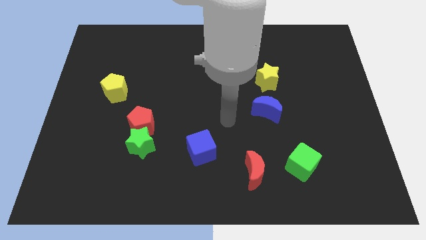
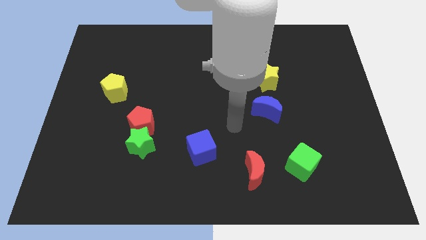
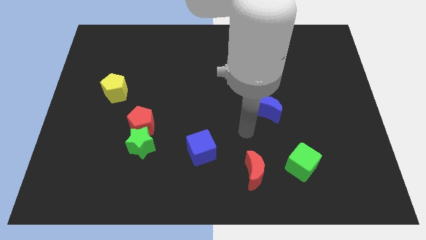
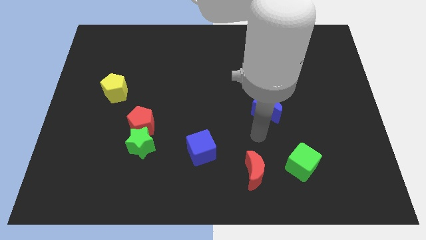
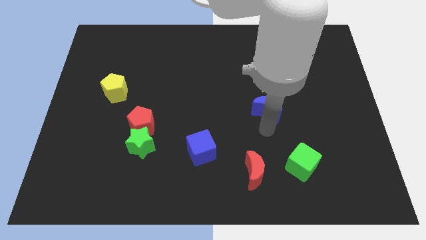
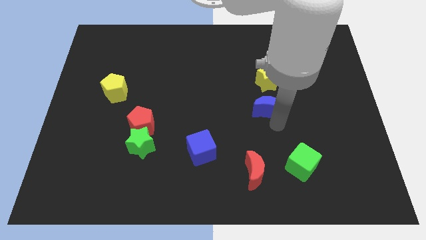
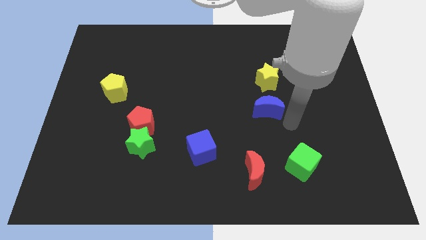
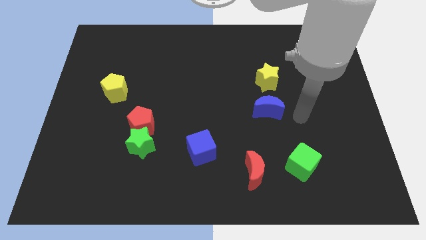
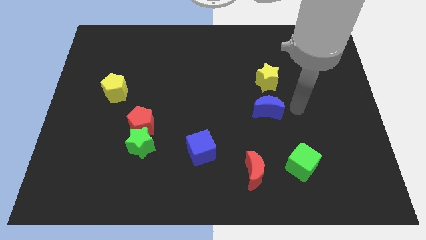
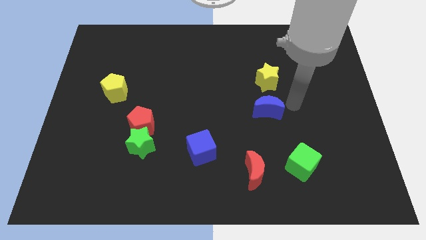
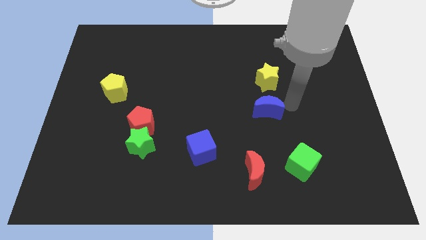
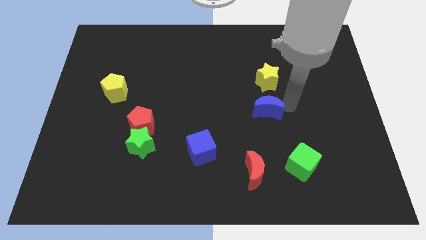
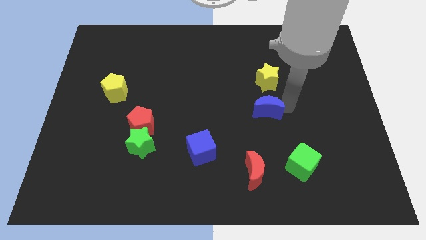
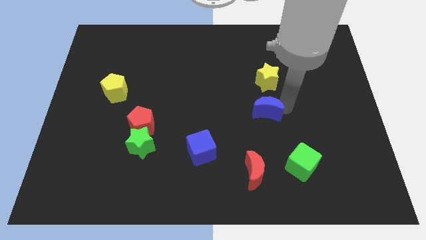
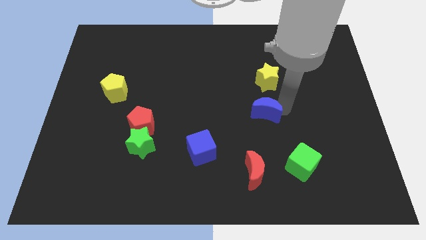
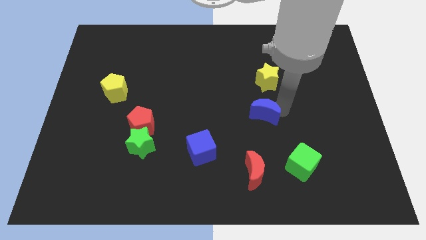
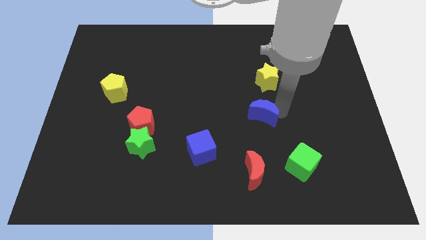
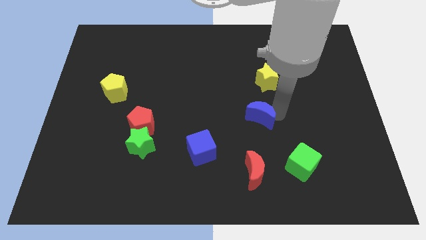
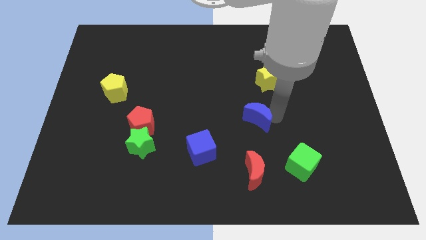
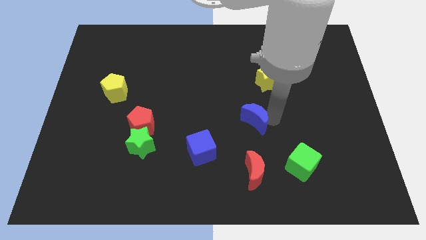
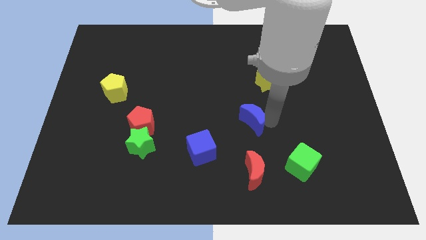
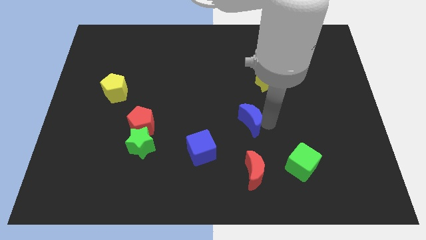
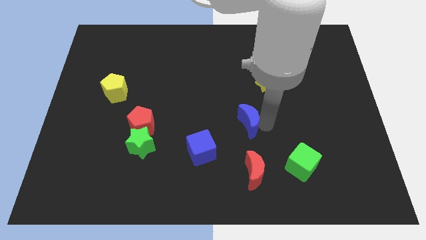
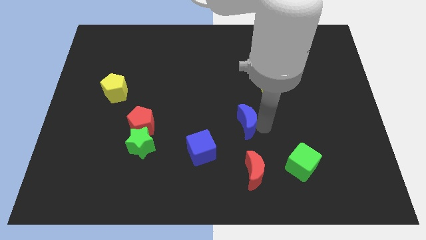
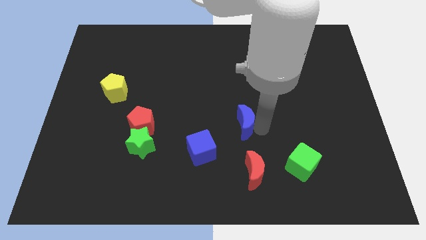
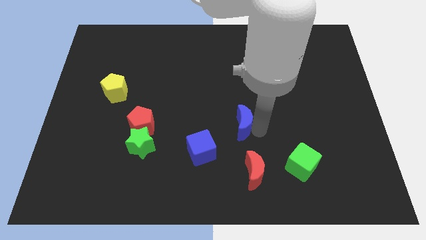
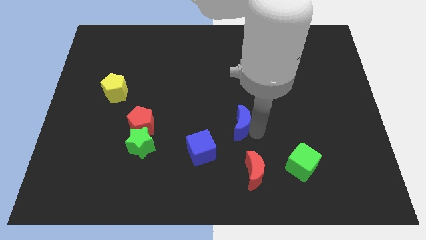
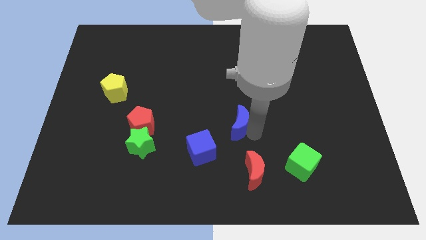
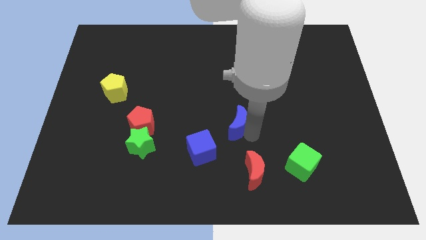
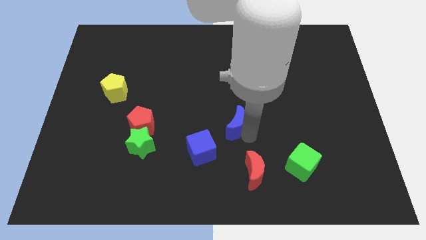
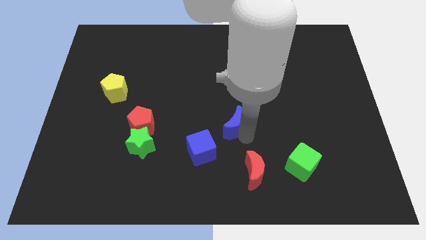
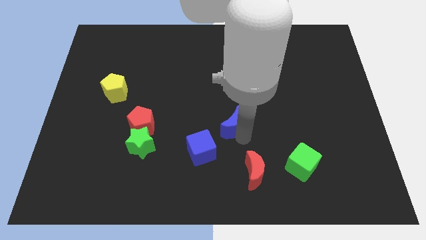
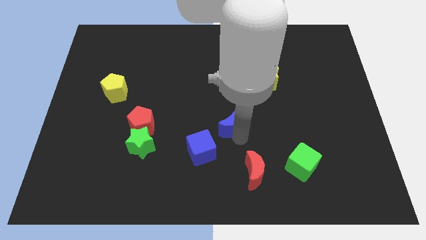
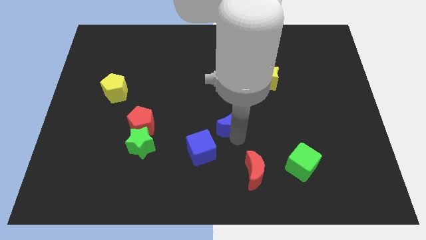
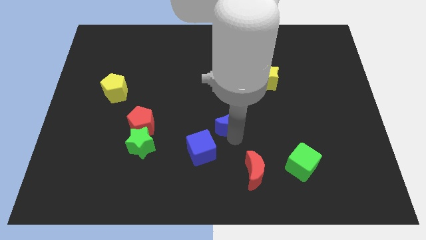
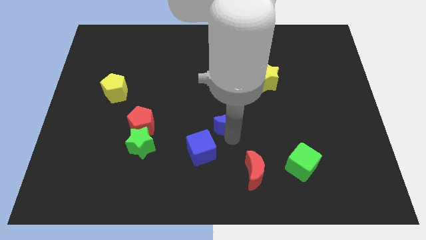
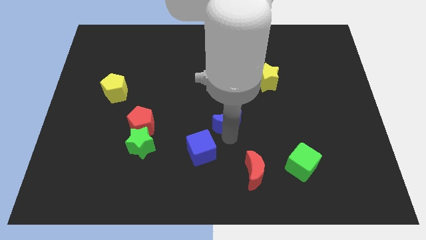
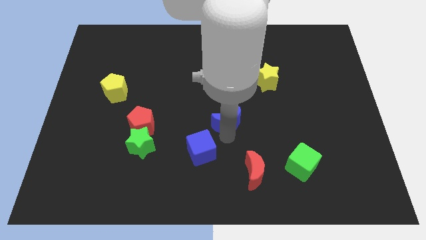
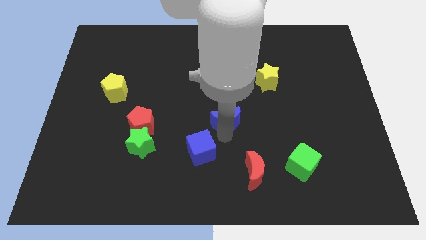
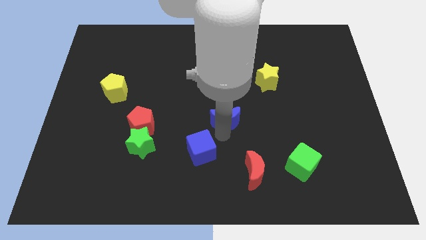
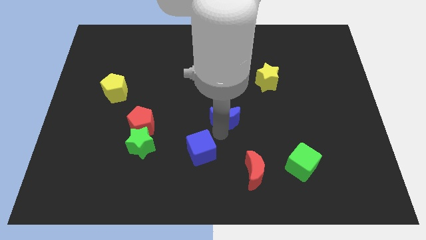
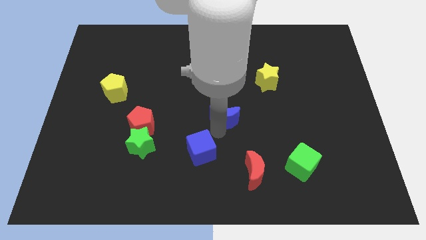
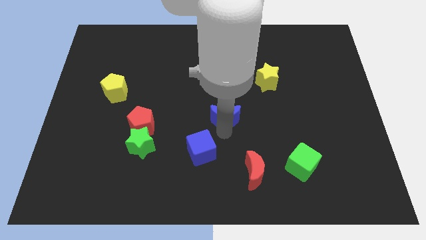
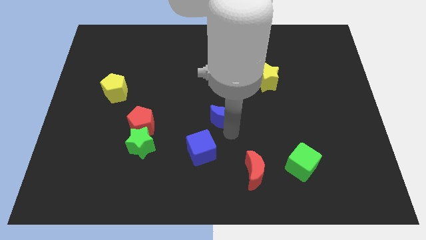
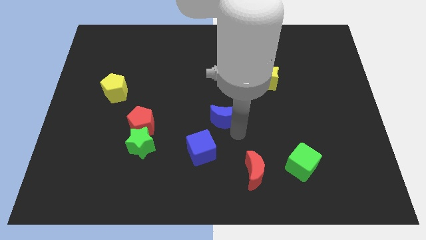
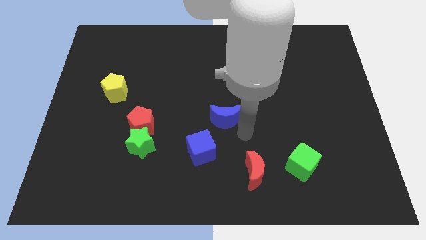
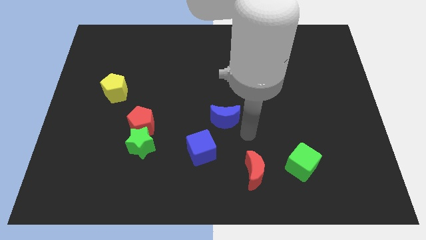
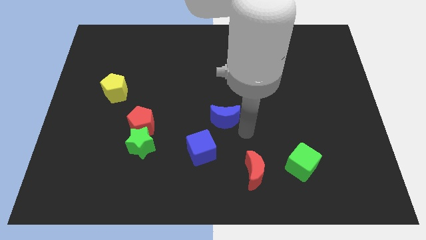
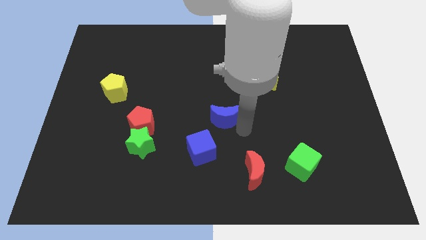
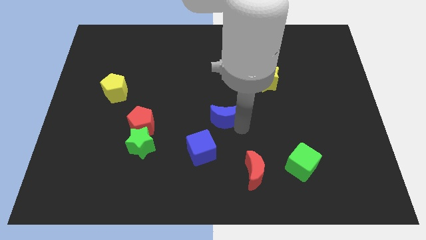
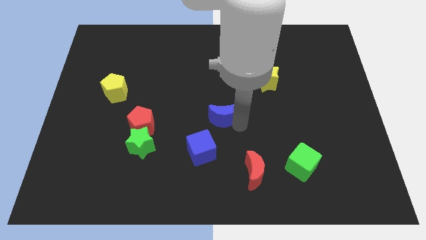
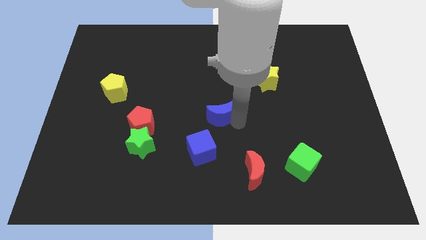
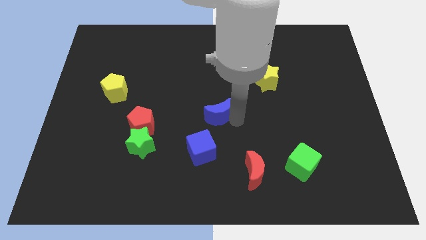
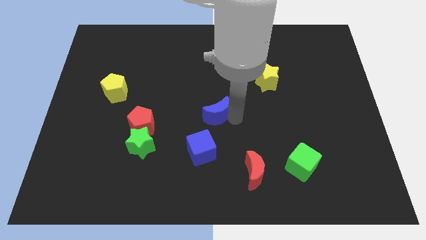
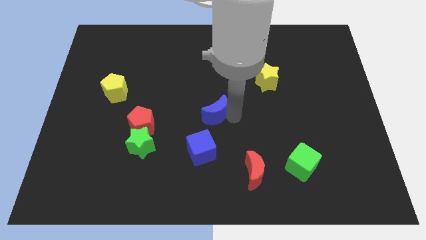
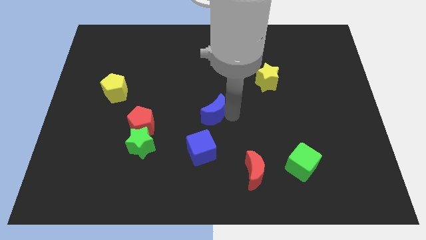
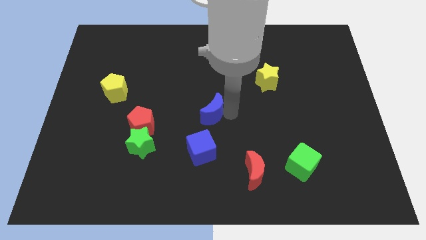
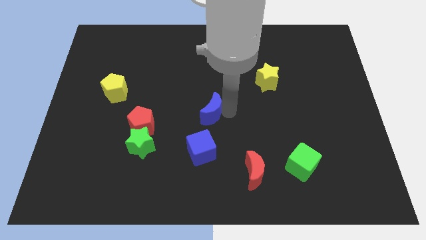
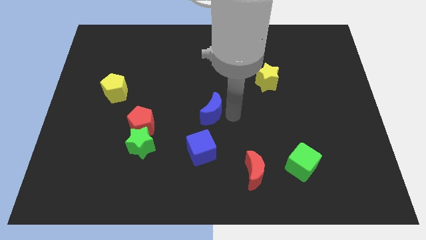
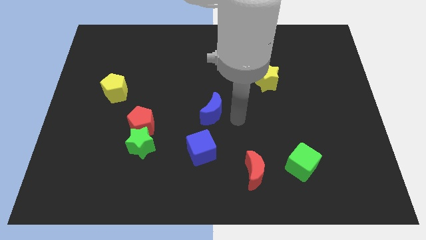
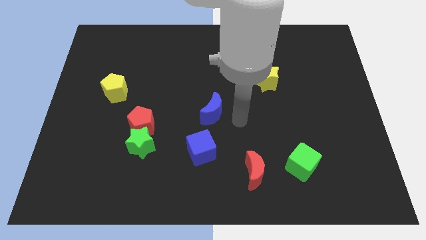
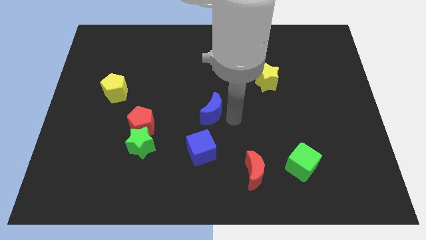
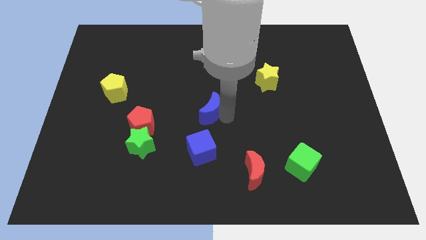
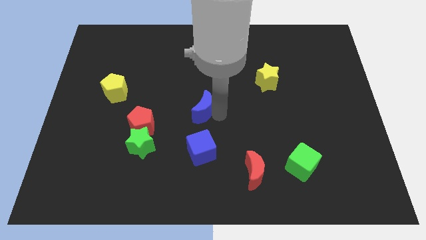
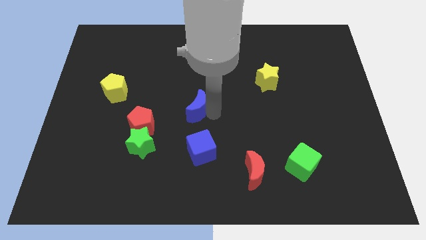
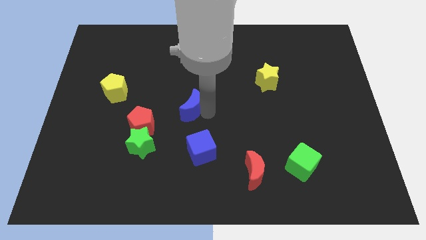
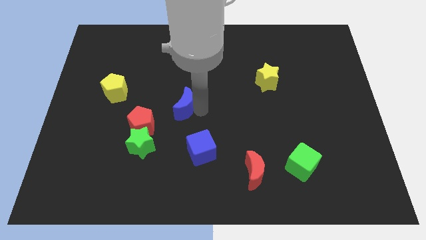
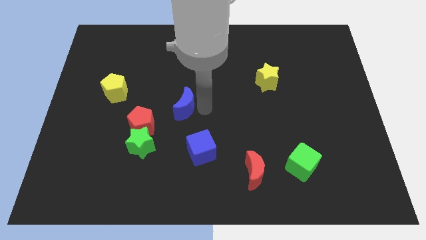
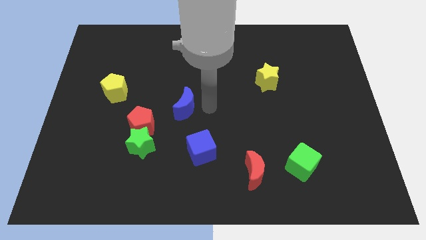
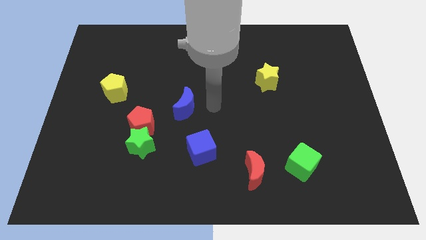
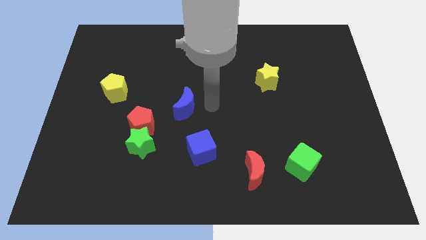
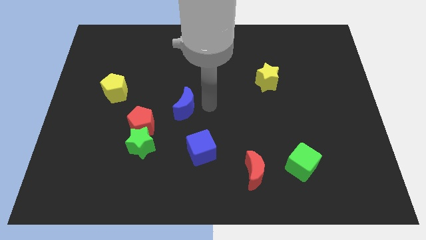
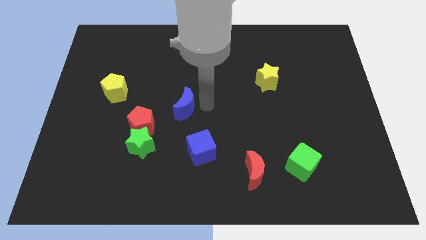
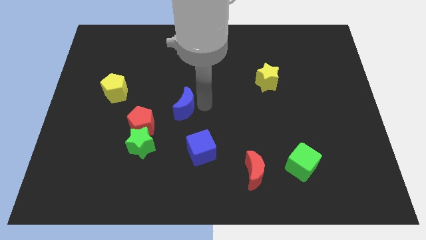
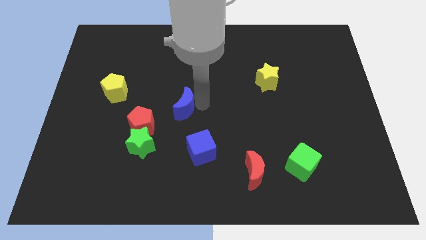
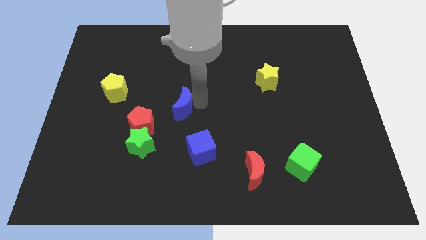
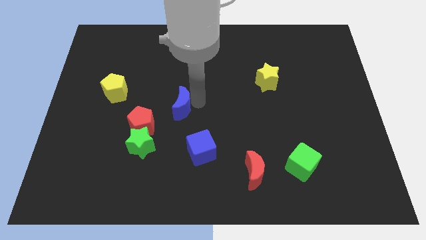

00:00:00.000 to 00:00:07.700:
push the blue moon to the left

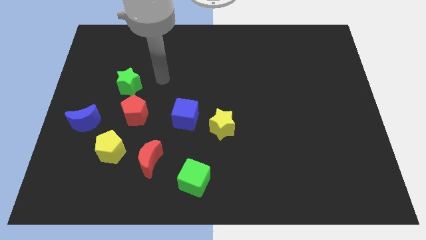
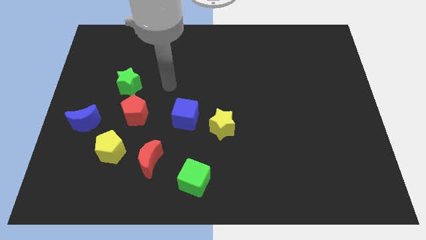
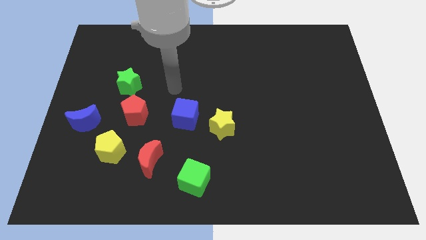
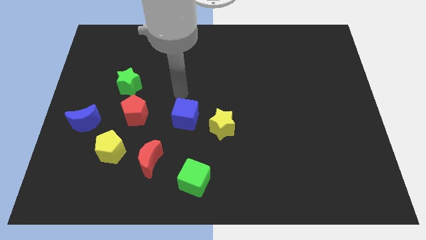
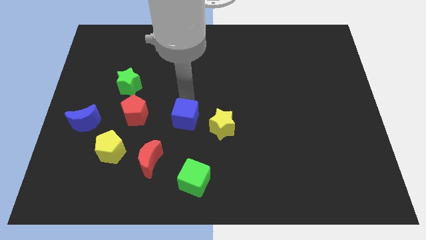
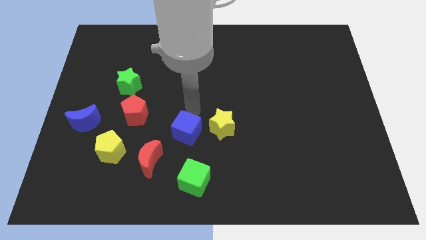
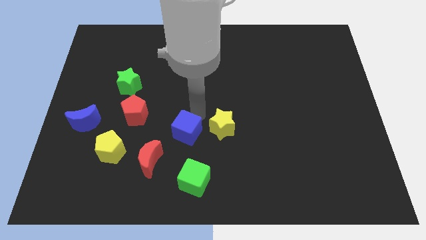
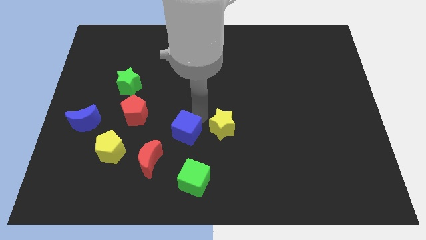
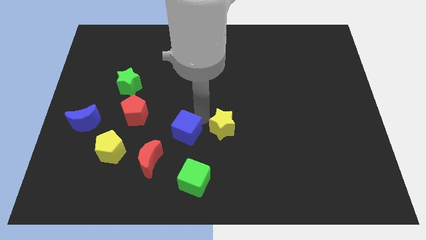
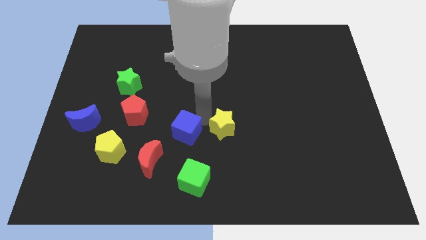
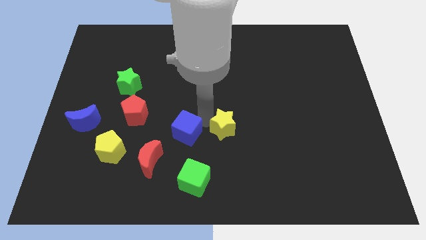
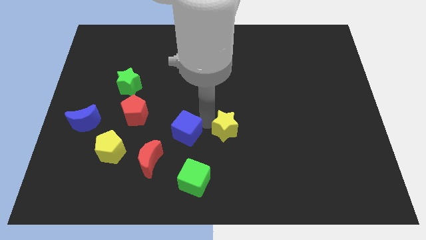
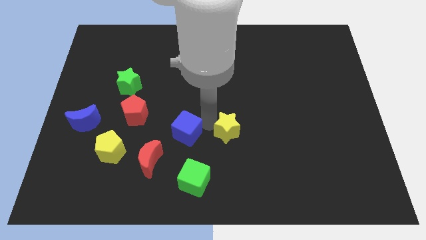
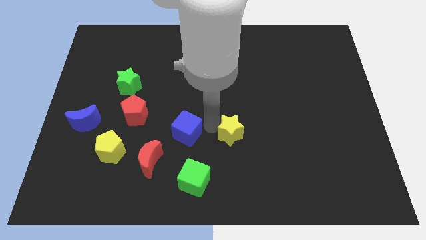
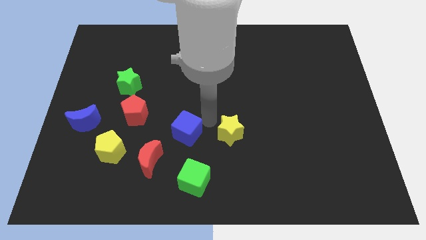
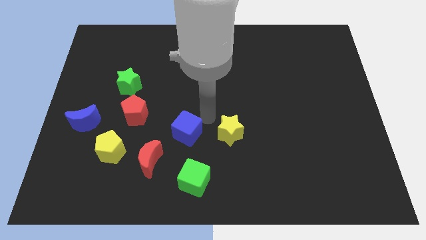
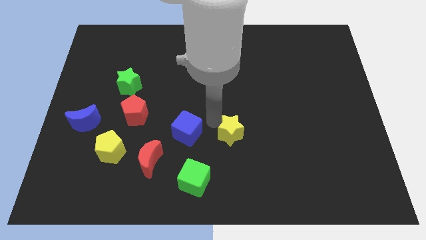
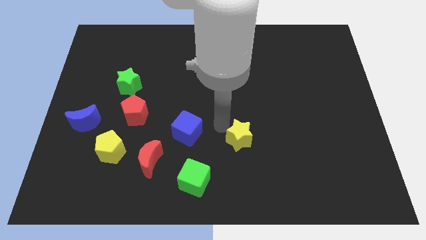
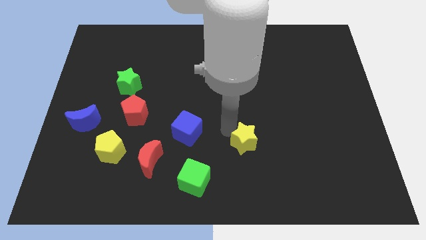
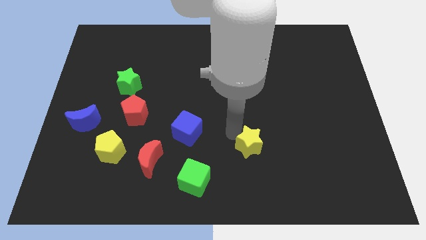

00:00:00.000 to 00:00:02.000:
move the yellow star slightly downwards and then right
